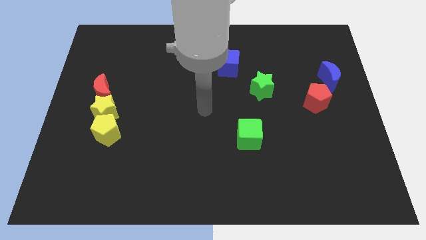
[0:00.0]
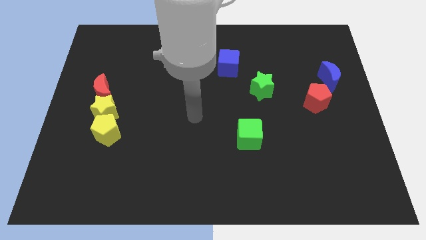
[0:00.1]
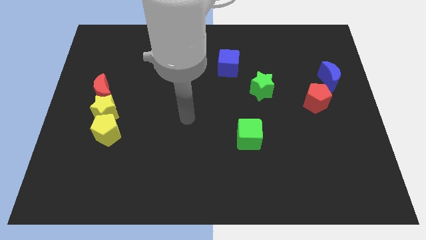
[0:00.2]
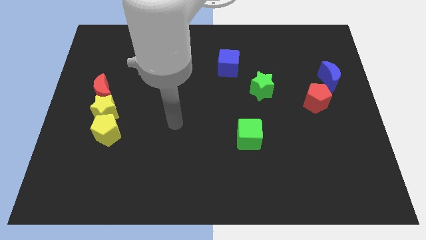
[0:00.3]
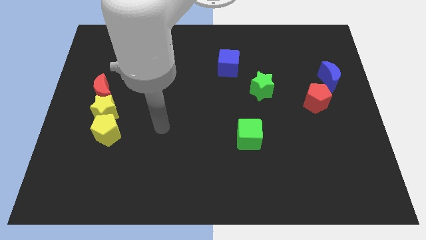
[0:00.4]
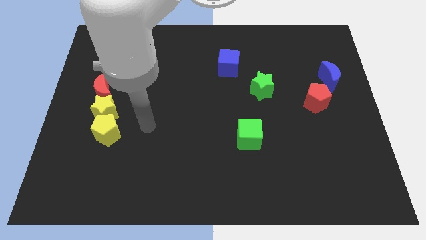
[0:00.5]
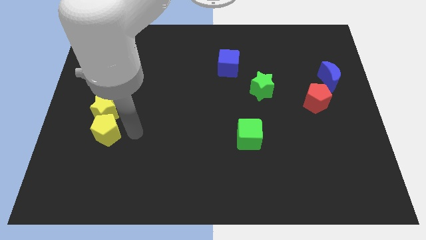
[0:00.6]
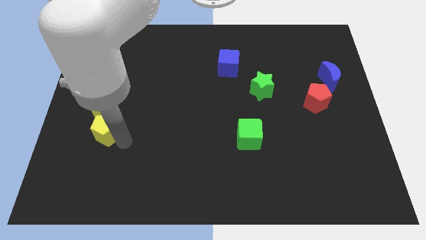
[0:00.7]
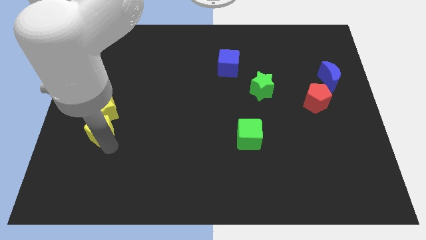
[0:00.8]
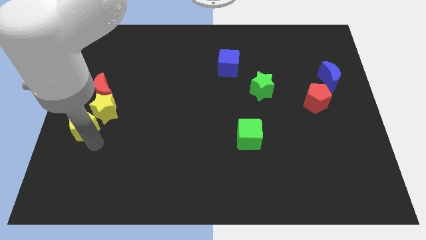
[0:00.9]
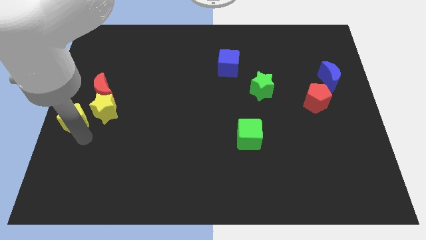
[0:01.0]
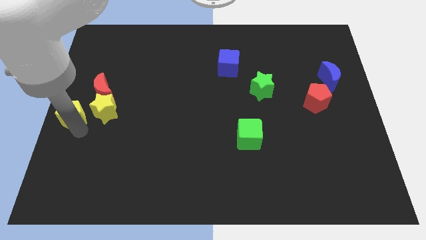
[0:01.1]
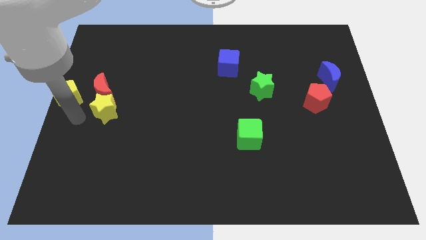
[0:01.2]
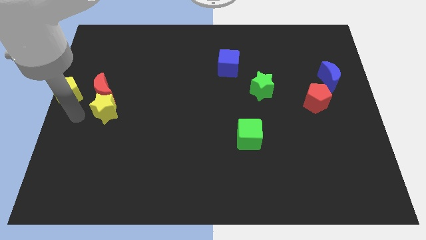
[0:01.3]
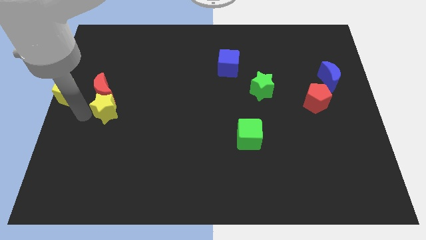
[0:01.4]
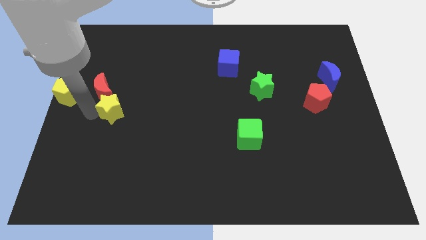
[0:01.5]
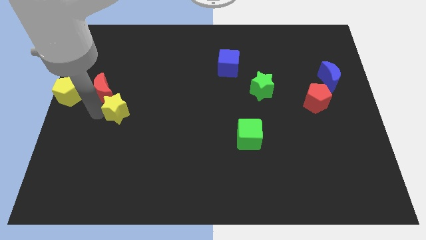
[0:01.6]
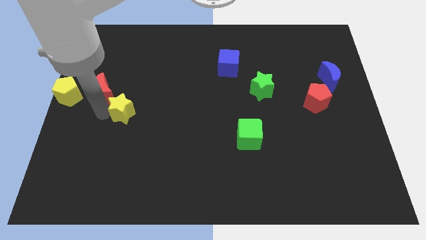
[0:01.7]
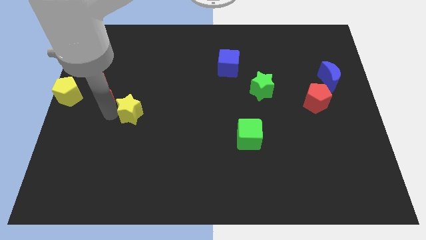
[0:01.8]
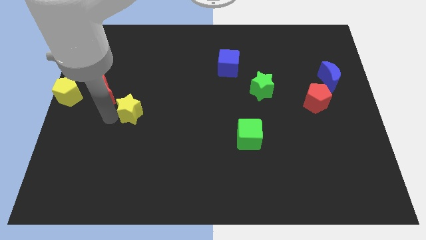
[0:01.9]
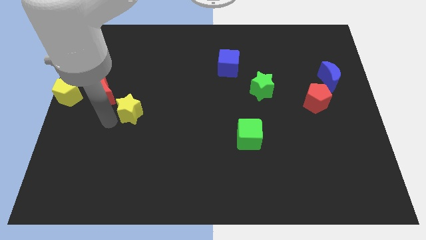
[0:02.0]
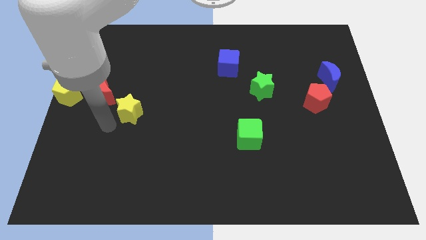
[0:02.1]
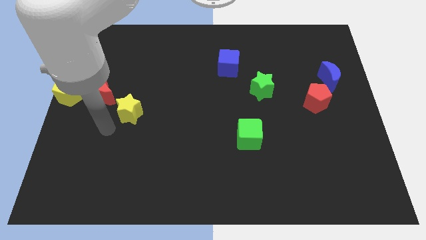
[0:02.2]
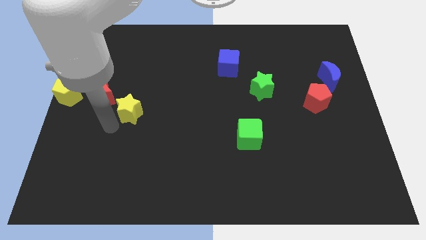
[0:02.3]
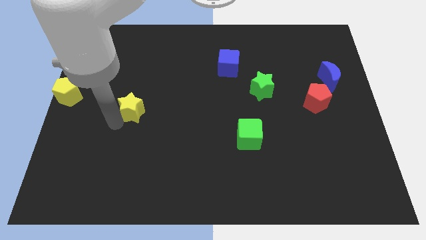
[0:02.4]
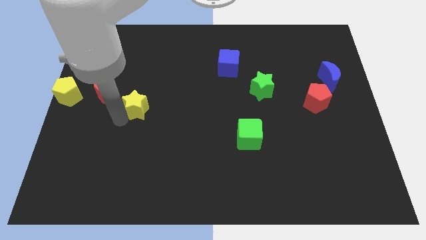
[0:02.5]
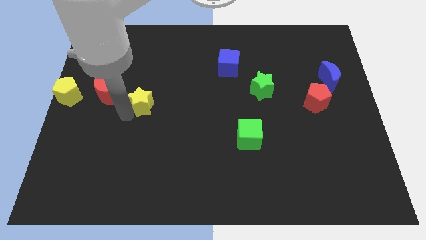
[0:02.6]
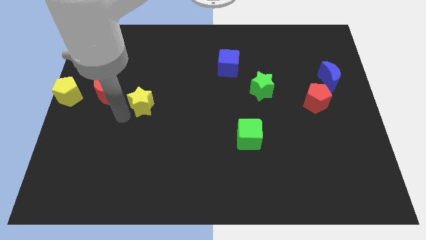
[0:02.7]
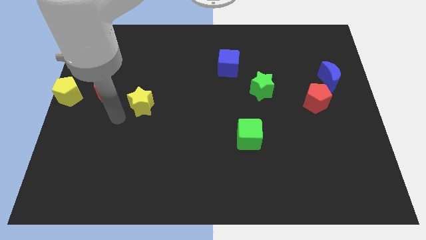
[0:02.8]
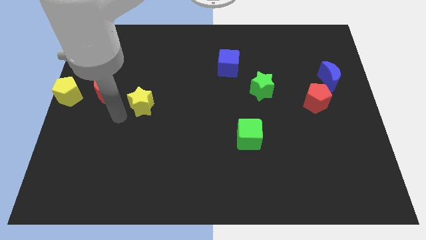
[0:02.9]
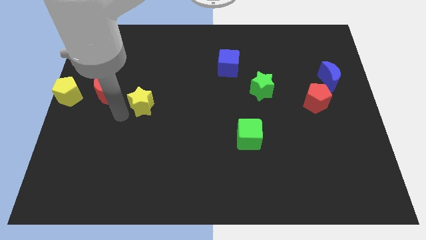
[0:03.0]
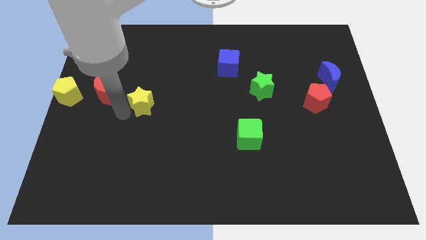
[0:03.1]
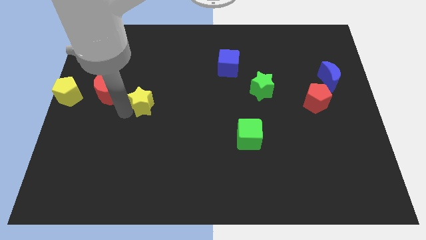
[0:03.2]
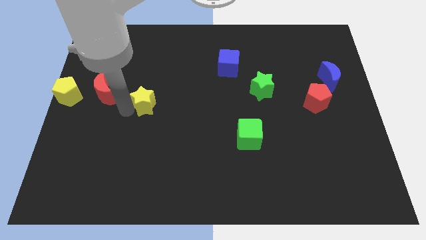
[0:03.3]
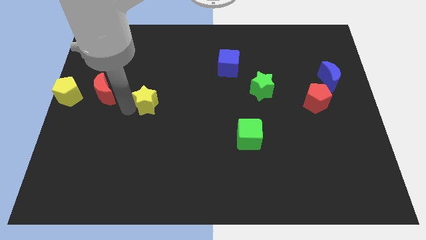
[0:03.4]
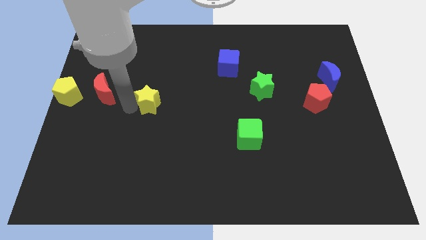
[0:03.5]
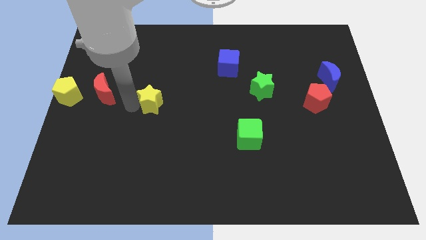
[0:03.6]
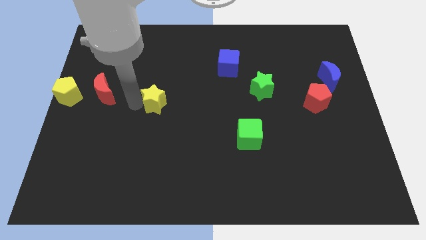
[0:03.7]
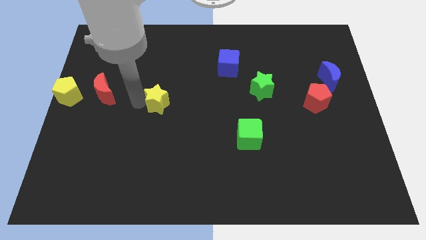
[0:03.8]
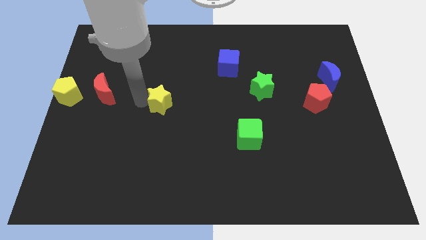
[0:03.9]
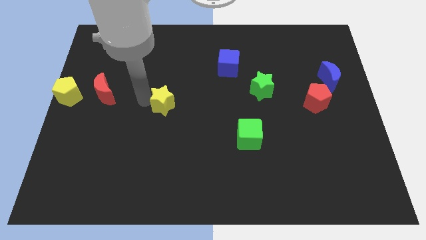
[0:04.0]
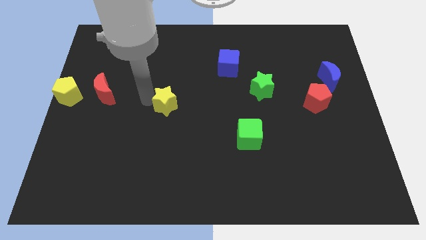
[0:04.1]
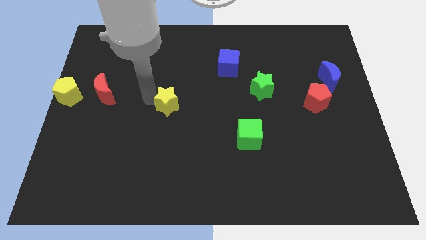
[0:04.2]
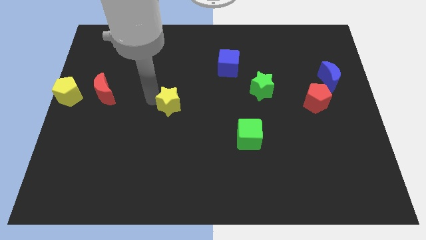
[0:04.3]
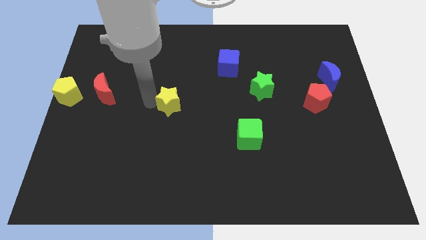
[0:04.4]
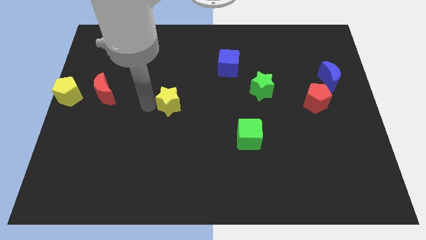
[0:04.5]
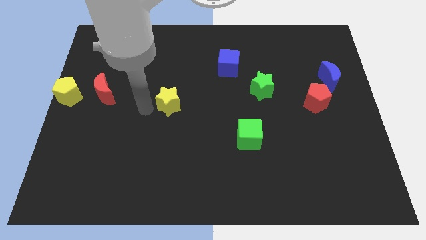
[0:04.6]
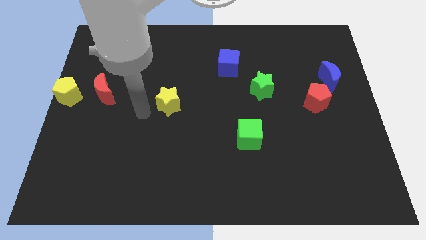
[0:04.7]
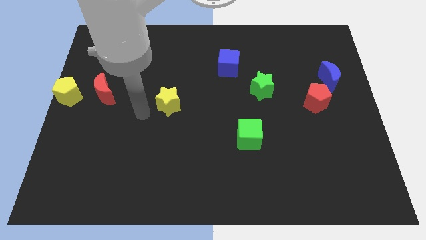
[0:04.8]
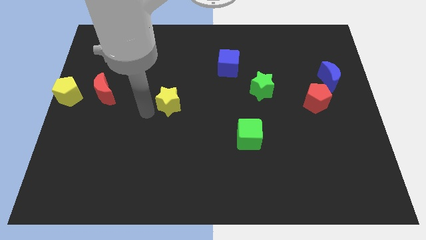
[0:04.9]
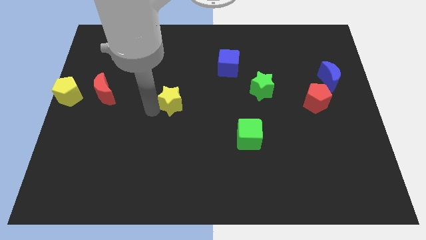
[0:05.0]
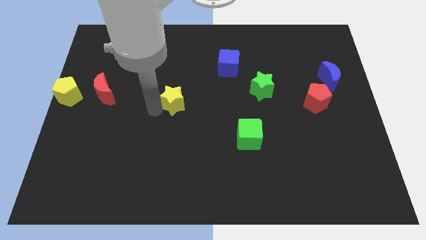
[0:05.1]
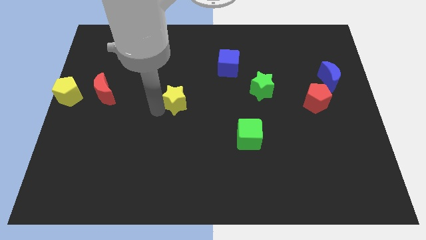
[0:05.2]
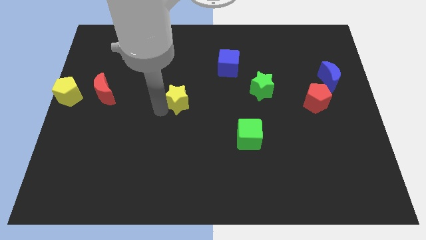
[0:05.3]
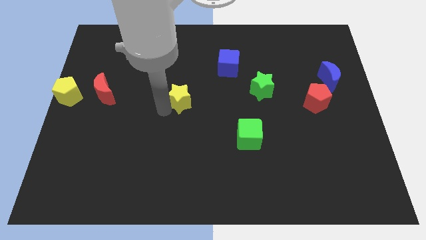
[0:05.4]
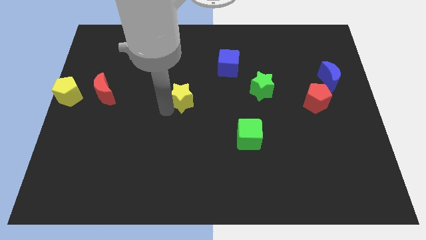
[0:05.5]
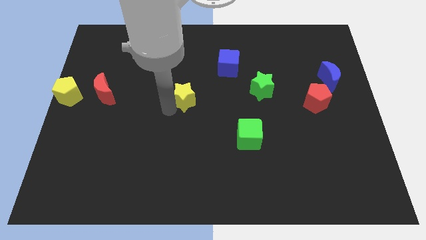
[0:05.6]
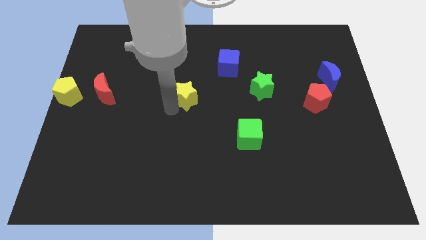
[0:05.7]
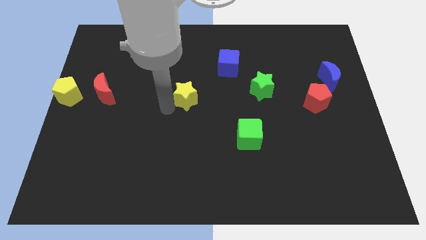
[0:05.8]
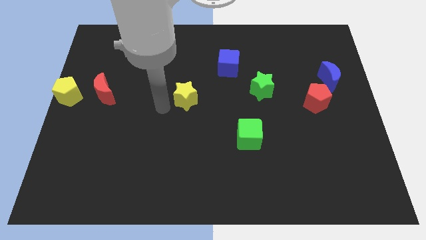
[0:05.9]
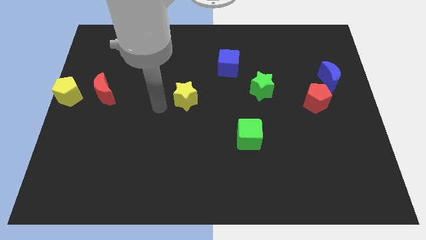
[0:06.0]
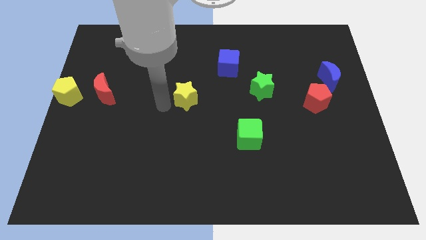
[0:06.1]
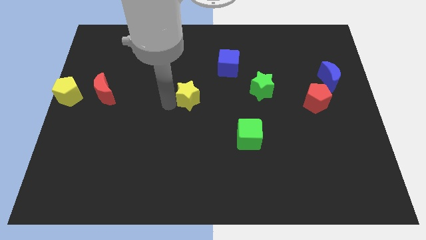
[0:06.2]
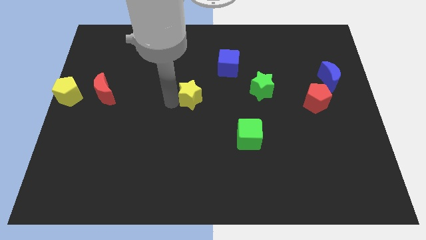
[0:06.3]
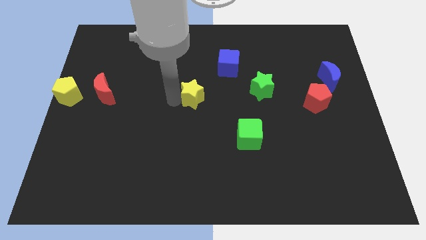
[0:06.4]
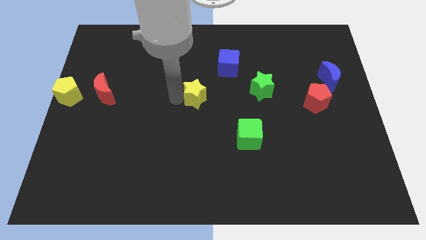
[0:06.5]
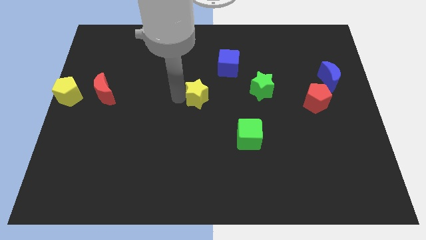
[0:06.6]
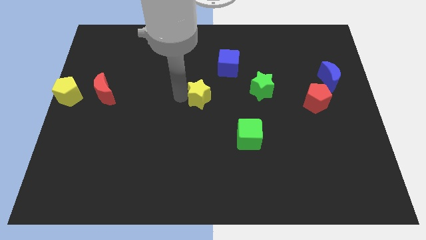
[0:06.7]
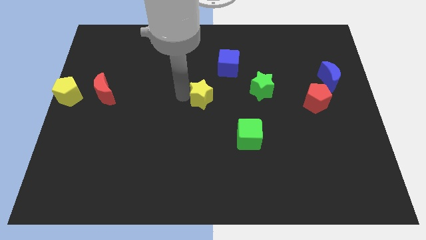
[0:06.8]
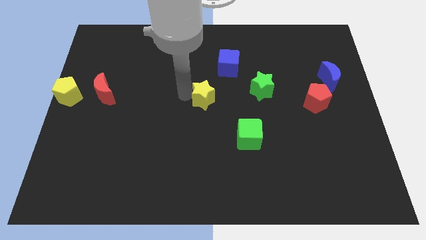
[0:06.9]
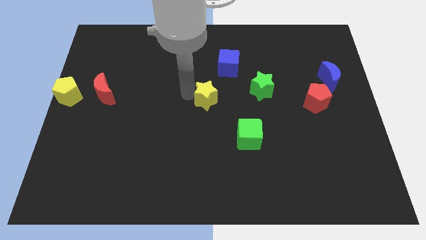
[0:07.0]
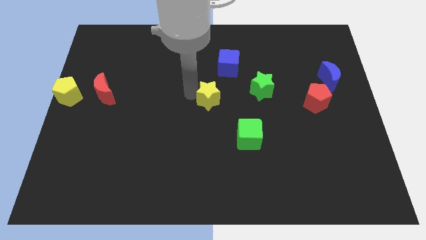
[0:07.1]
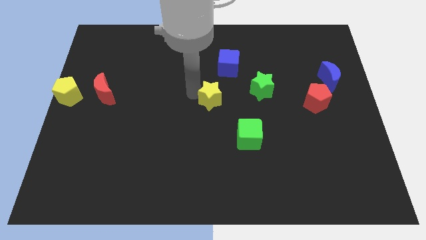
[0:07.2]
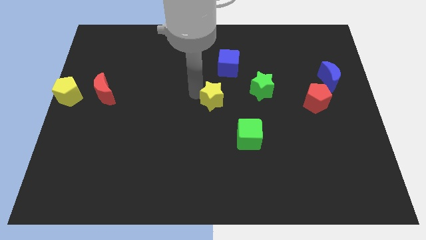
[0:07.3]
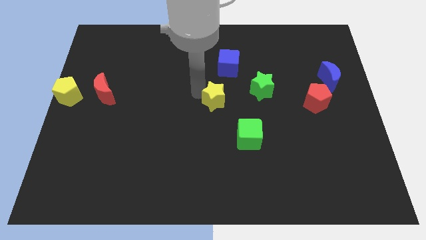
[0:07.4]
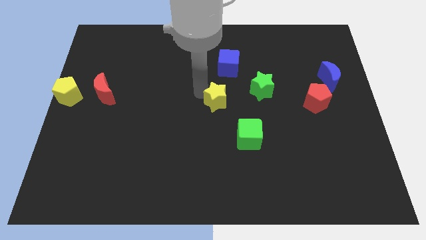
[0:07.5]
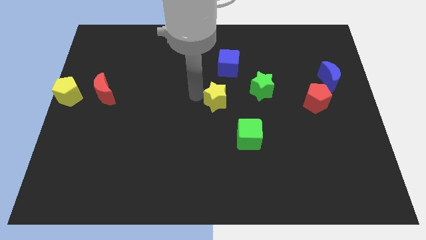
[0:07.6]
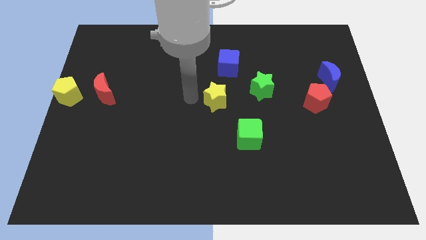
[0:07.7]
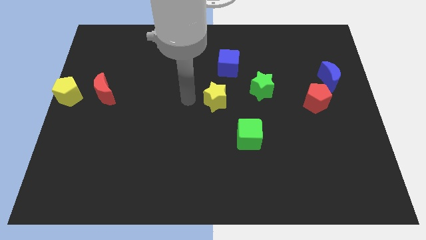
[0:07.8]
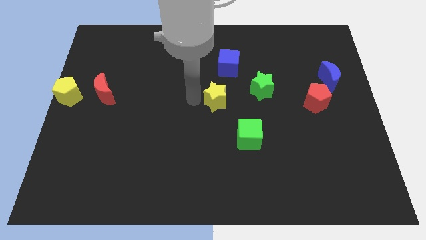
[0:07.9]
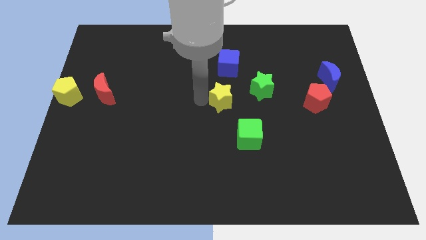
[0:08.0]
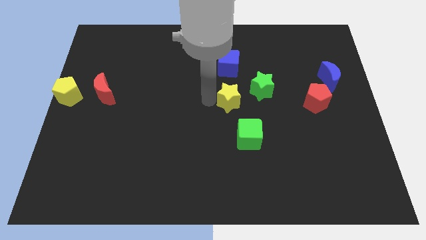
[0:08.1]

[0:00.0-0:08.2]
move the yellow star to the top side of the green cube
